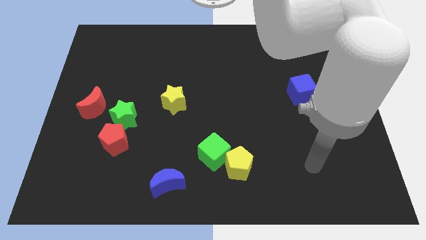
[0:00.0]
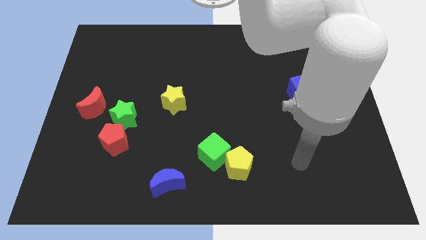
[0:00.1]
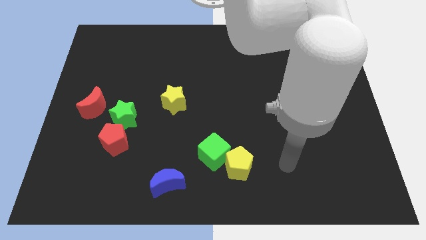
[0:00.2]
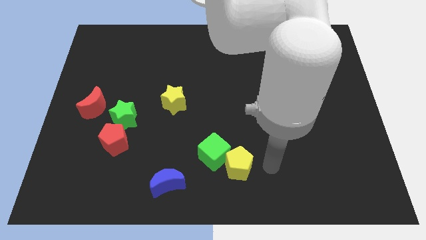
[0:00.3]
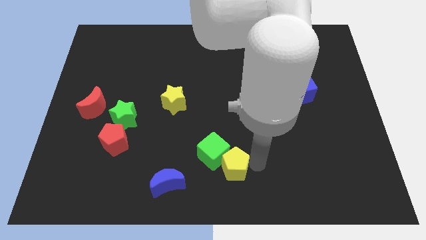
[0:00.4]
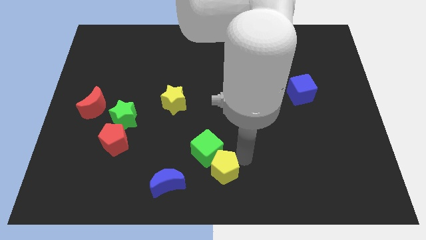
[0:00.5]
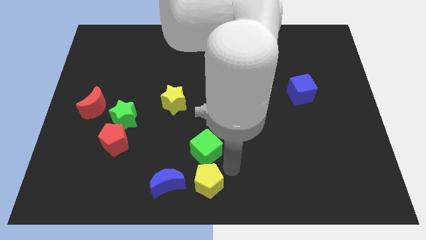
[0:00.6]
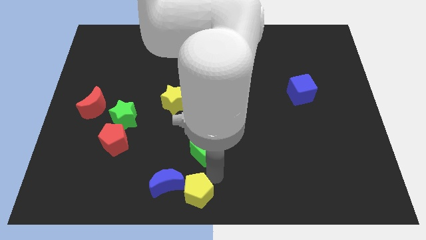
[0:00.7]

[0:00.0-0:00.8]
pull the green cube apart from the yellow pentagon

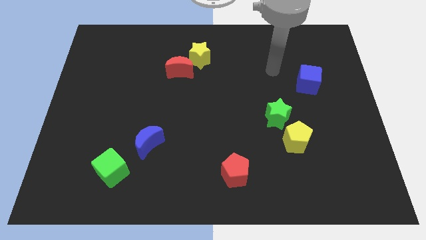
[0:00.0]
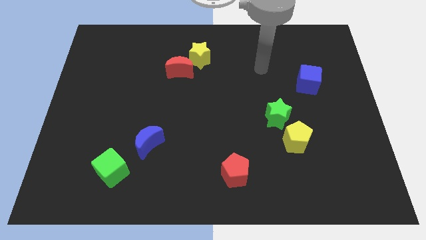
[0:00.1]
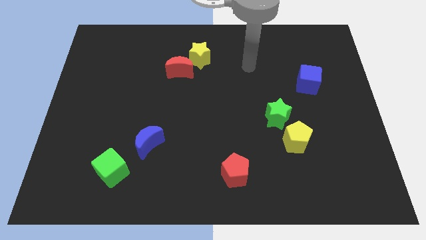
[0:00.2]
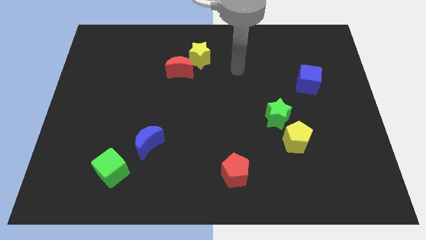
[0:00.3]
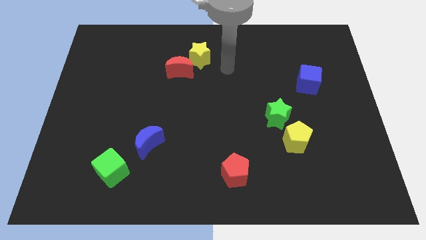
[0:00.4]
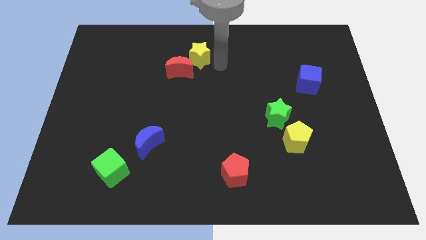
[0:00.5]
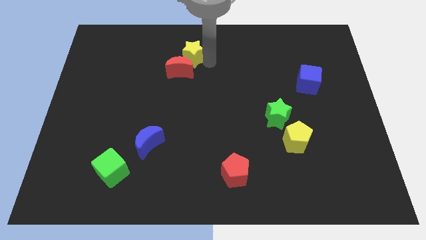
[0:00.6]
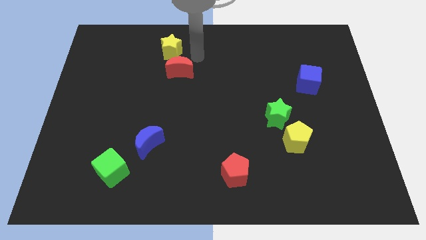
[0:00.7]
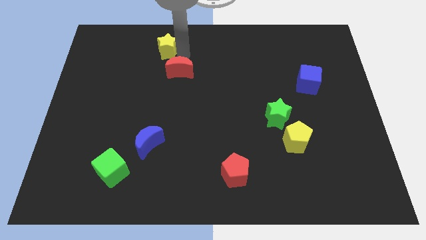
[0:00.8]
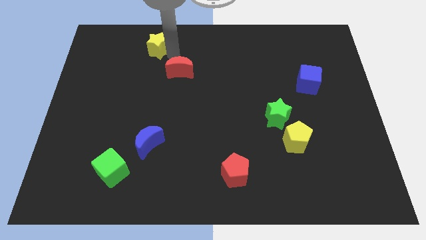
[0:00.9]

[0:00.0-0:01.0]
separate the red moon from the yellow star

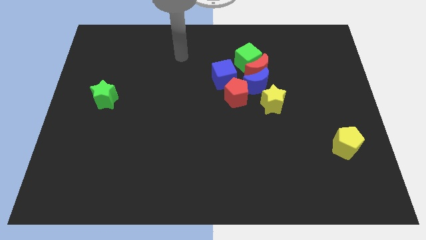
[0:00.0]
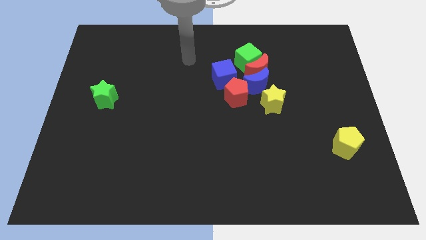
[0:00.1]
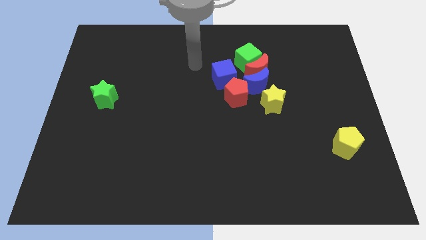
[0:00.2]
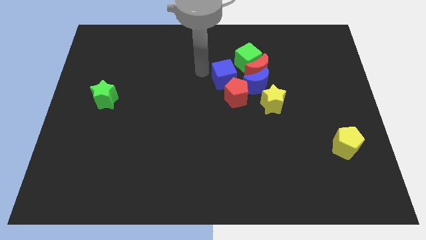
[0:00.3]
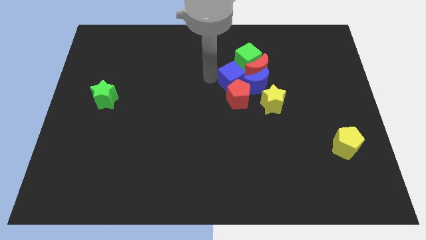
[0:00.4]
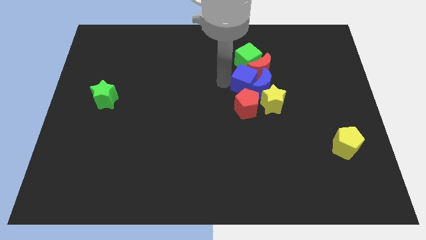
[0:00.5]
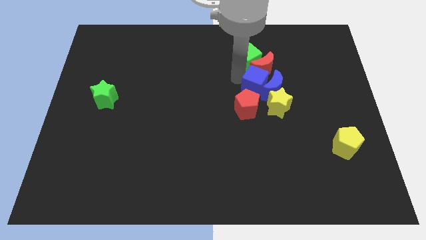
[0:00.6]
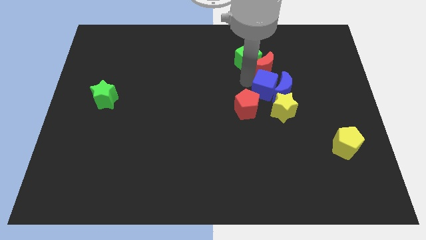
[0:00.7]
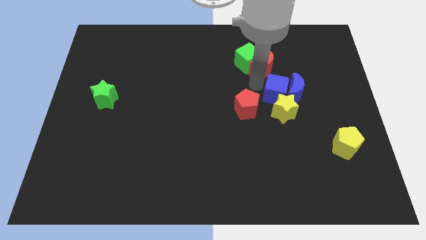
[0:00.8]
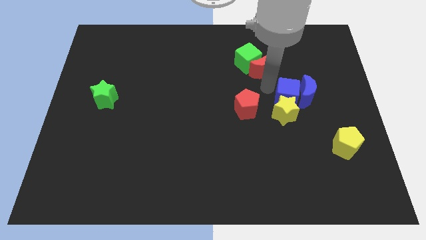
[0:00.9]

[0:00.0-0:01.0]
separate the blue moon from the group of blocks

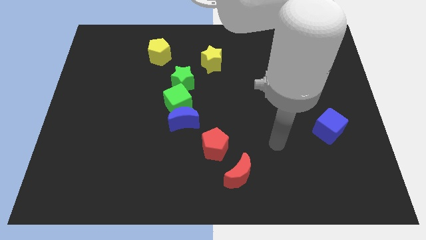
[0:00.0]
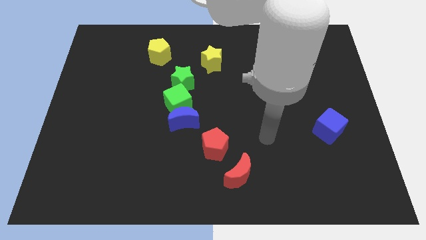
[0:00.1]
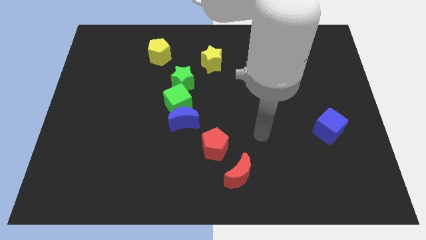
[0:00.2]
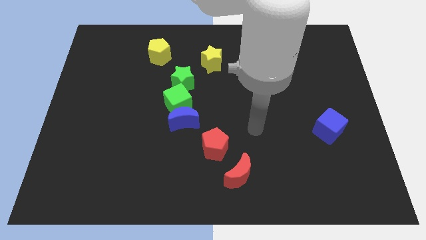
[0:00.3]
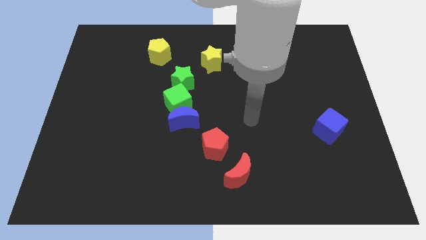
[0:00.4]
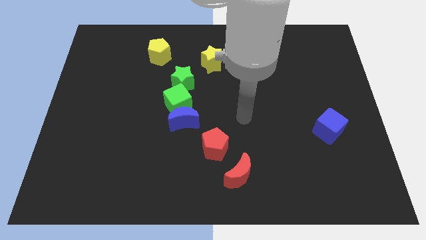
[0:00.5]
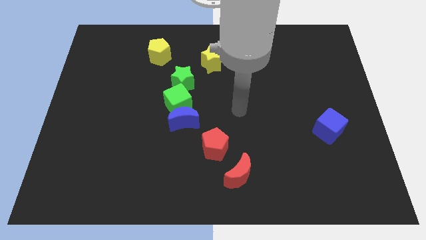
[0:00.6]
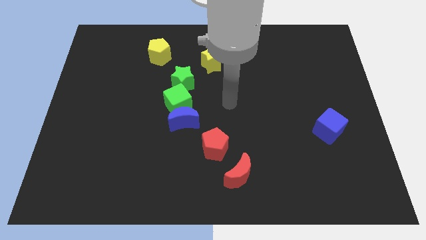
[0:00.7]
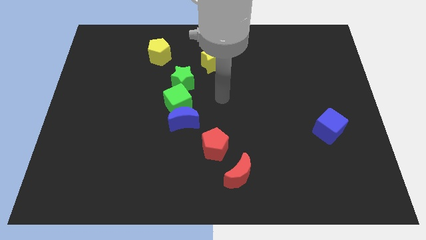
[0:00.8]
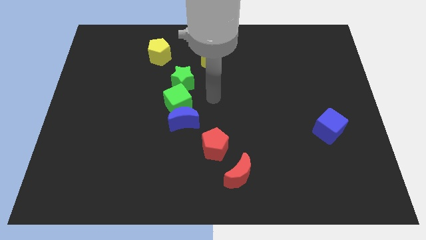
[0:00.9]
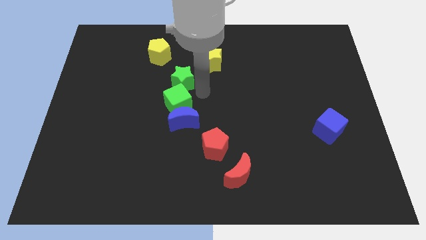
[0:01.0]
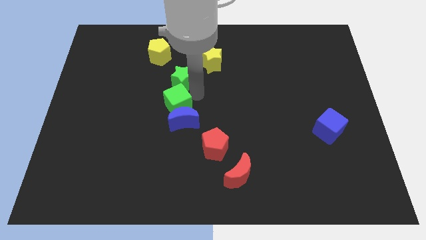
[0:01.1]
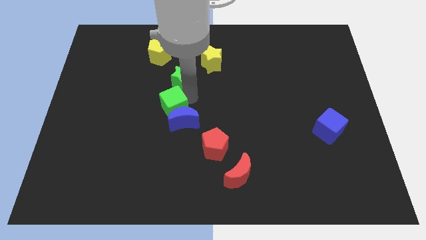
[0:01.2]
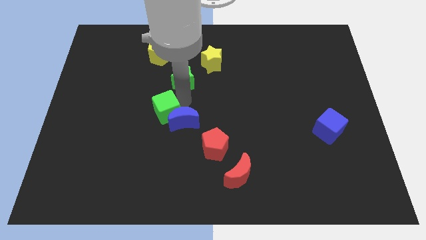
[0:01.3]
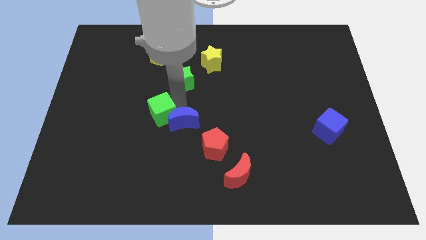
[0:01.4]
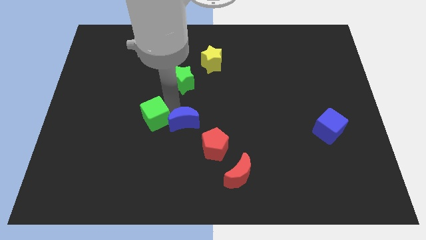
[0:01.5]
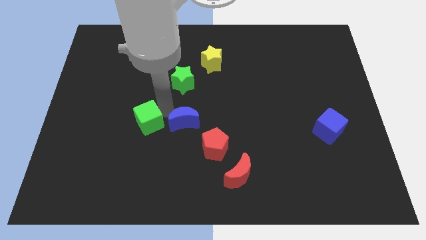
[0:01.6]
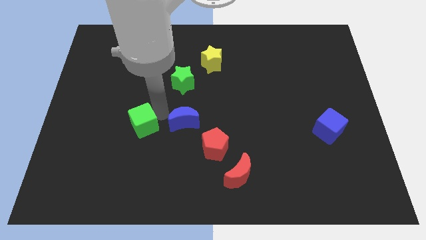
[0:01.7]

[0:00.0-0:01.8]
pull the green cube apart from the blue moon and green star

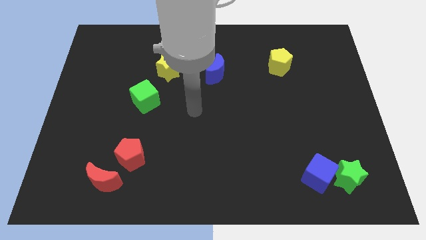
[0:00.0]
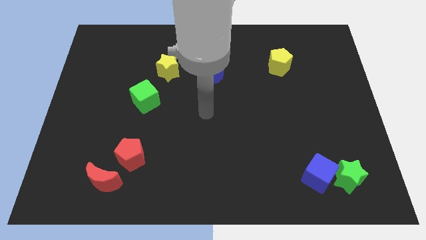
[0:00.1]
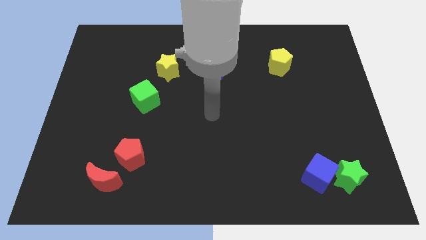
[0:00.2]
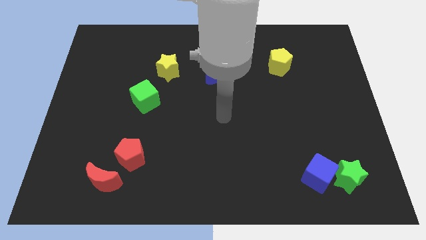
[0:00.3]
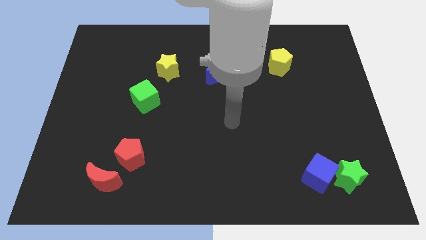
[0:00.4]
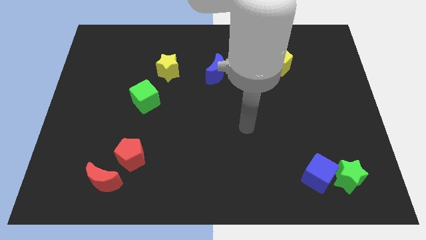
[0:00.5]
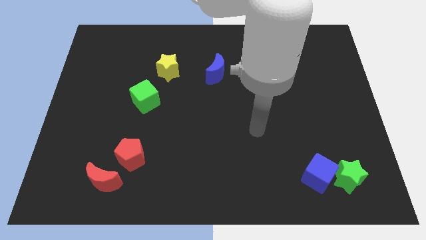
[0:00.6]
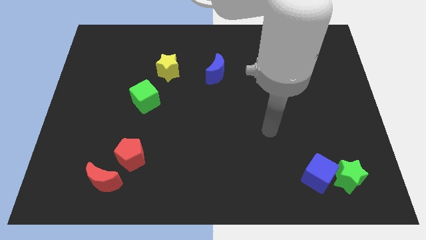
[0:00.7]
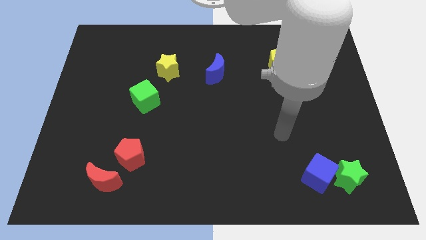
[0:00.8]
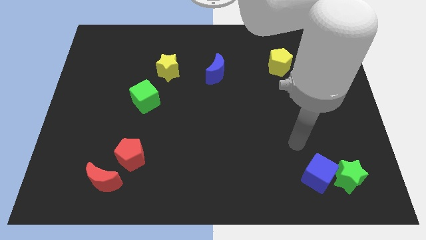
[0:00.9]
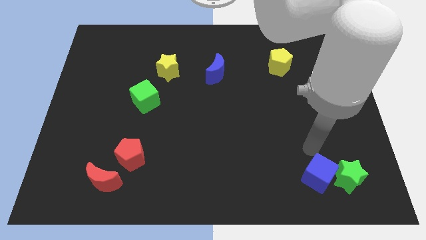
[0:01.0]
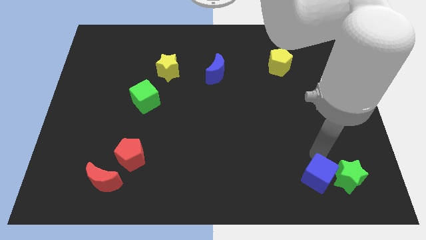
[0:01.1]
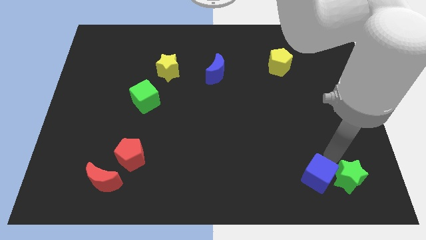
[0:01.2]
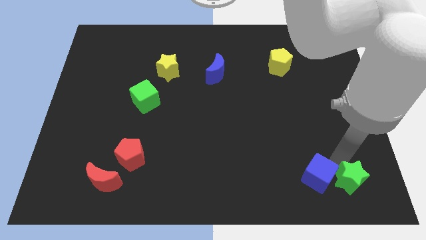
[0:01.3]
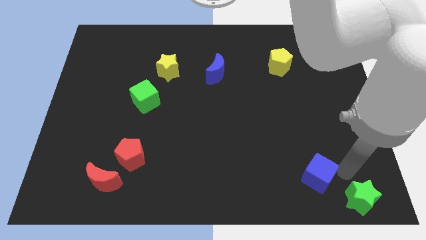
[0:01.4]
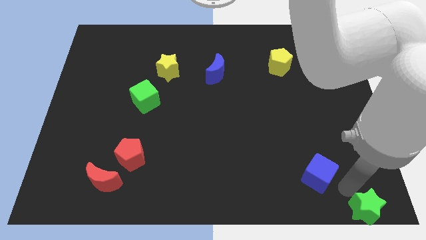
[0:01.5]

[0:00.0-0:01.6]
move the blue cube away from the green star

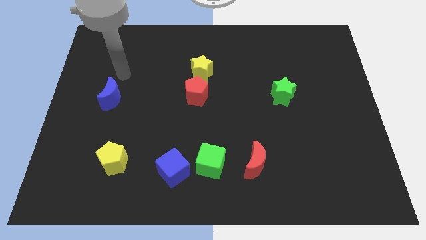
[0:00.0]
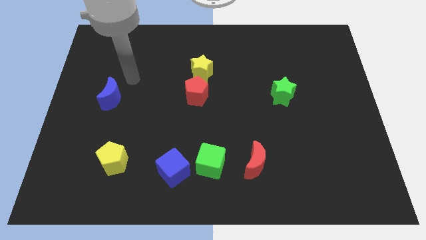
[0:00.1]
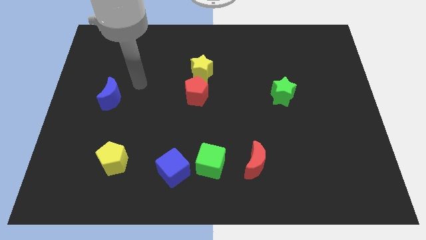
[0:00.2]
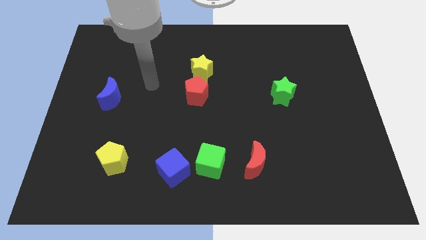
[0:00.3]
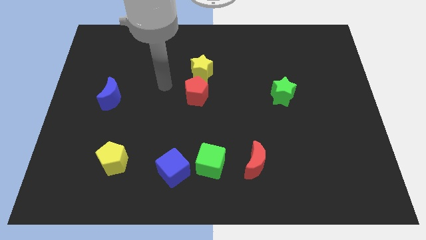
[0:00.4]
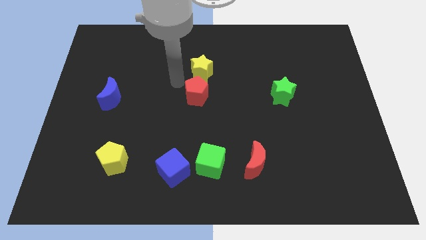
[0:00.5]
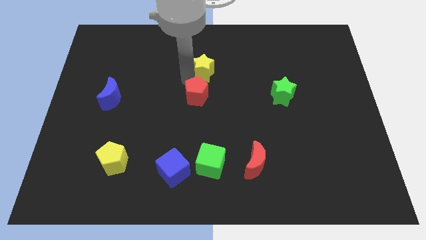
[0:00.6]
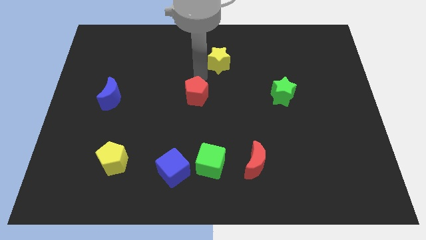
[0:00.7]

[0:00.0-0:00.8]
pull the red pentagon apart from the yellow star

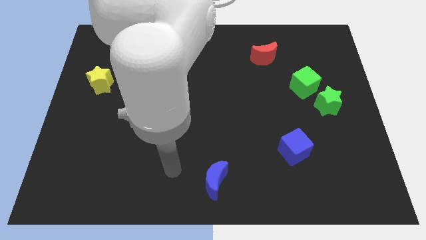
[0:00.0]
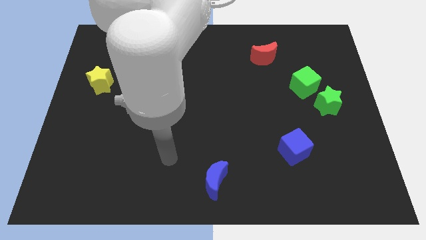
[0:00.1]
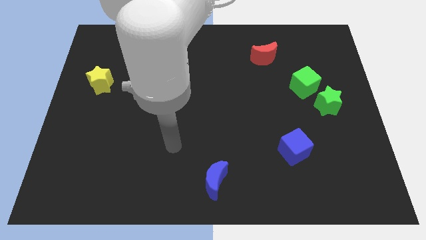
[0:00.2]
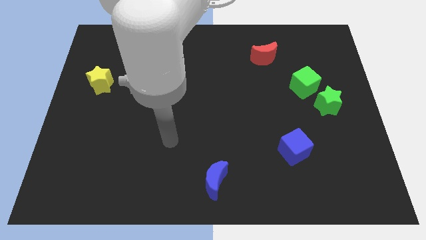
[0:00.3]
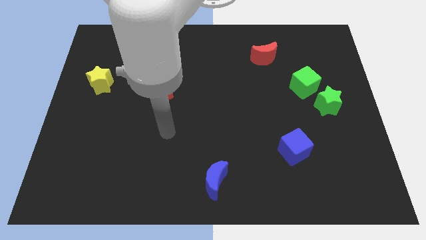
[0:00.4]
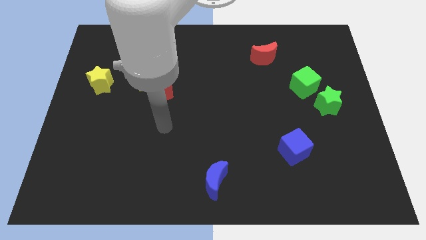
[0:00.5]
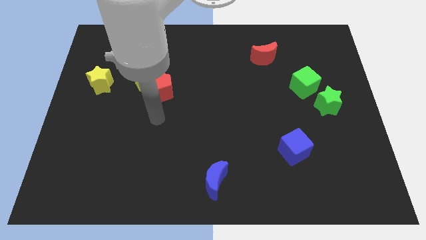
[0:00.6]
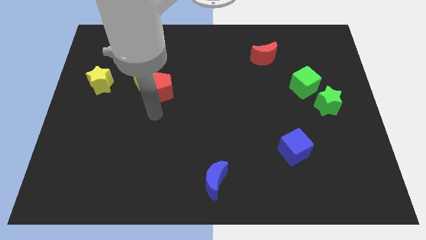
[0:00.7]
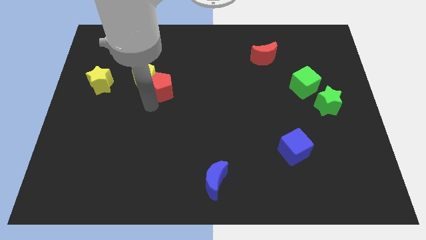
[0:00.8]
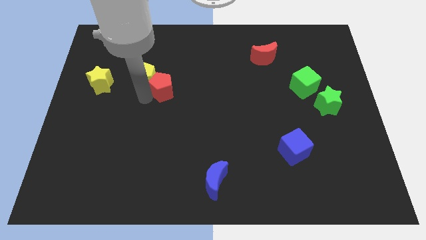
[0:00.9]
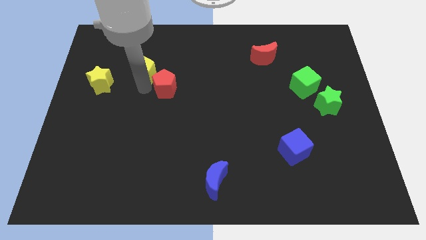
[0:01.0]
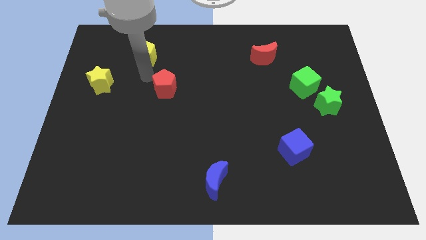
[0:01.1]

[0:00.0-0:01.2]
separate the red pentagon from the yellow pentagon

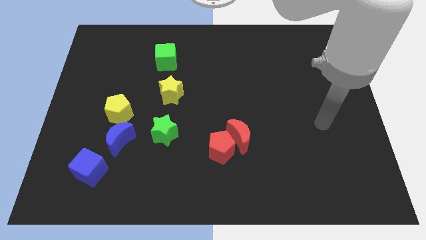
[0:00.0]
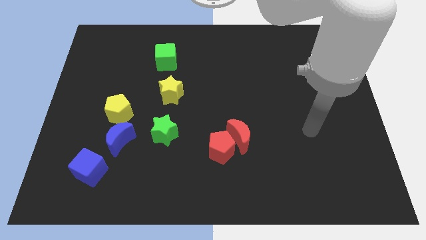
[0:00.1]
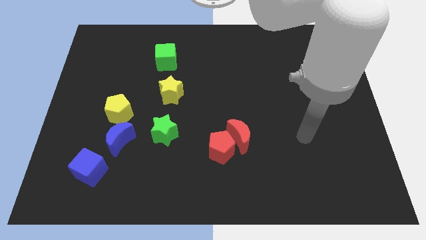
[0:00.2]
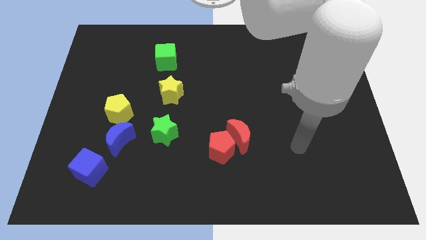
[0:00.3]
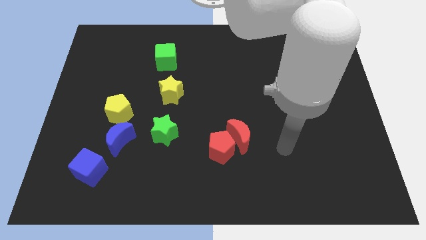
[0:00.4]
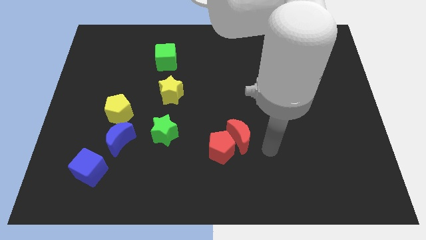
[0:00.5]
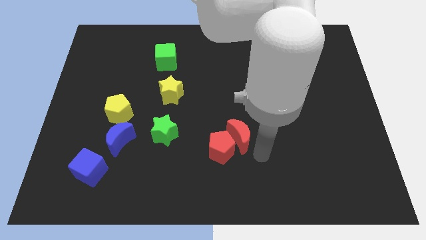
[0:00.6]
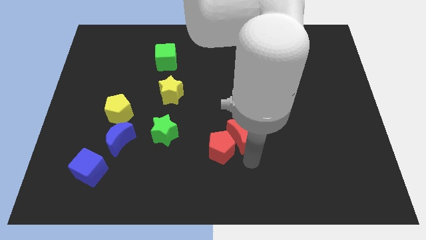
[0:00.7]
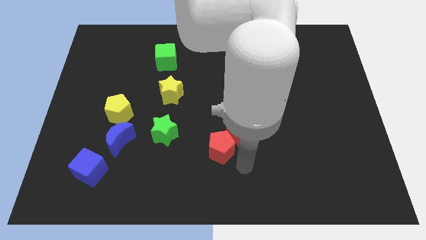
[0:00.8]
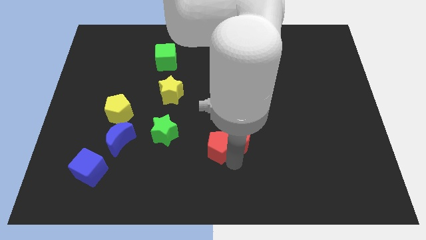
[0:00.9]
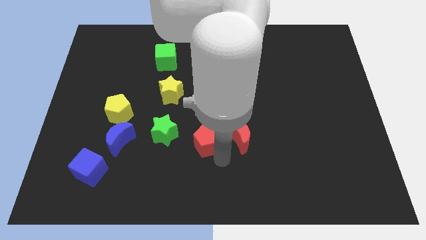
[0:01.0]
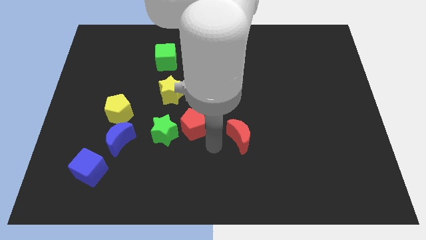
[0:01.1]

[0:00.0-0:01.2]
pull the red moon apart from the red pentagon
